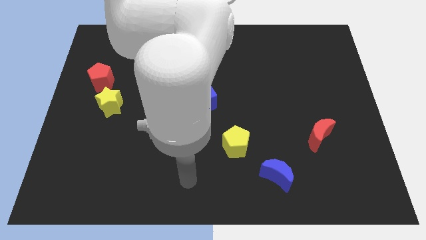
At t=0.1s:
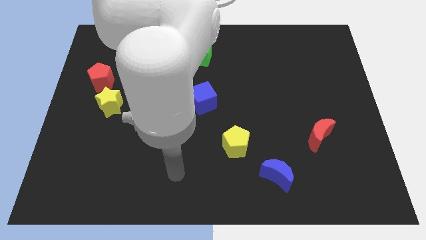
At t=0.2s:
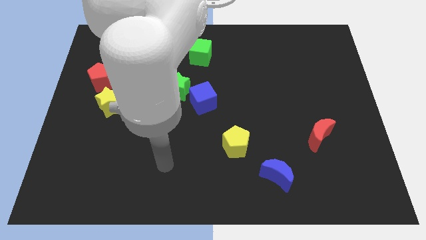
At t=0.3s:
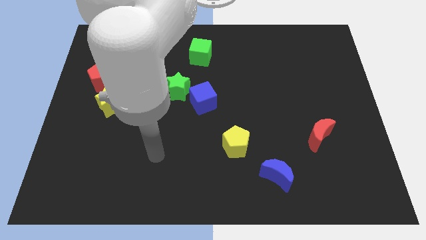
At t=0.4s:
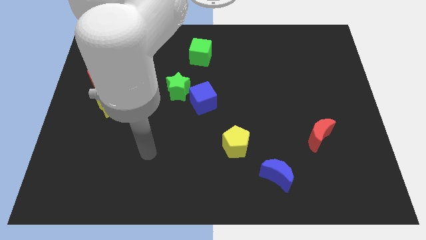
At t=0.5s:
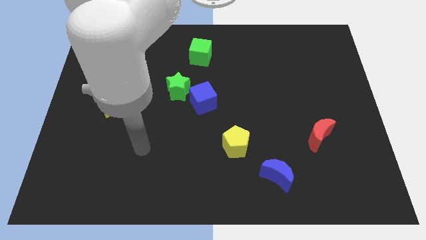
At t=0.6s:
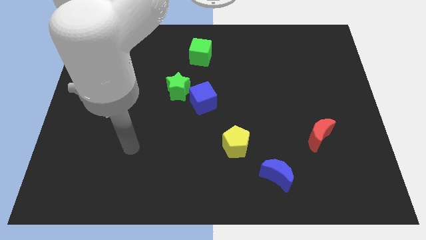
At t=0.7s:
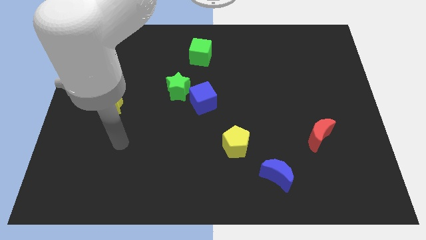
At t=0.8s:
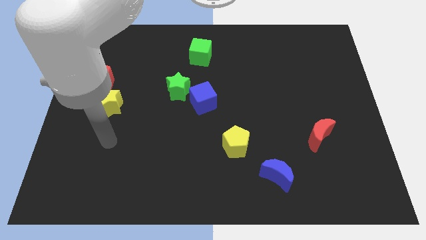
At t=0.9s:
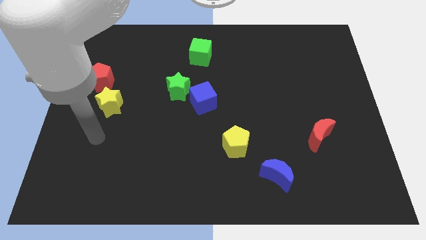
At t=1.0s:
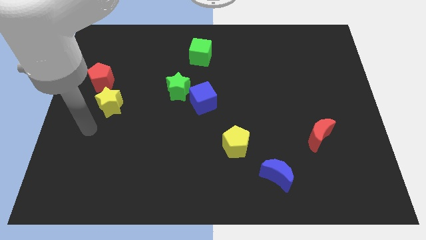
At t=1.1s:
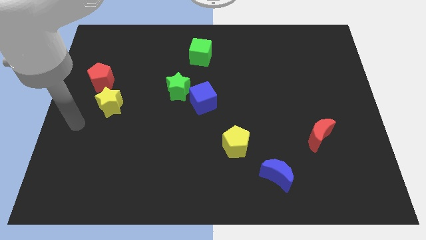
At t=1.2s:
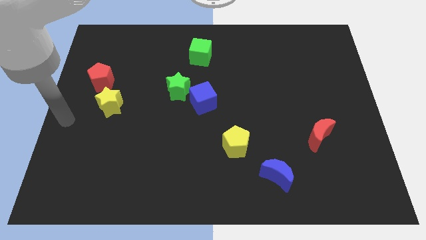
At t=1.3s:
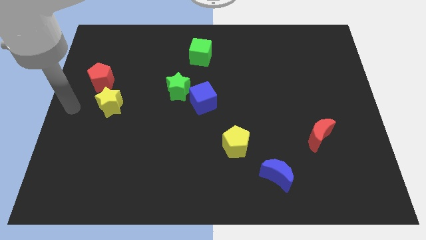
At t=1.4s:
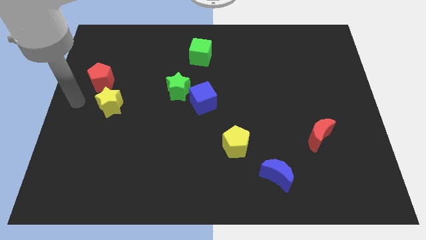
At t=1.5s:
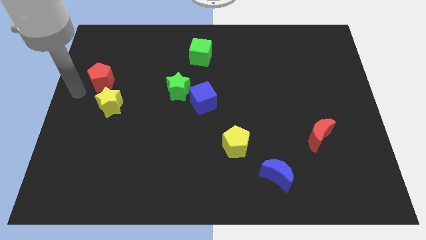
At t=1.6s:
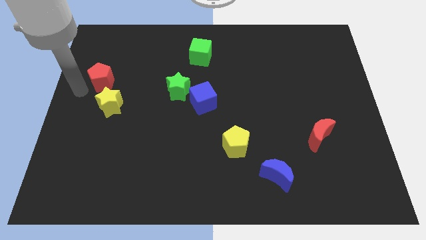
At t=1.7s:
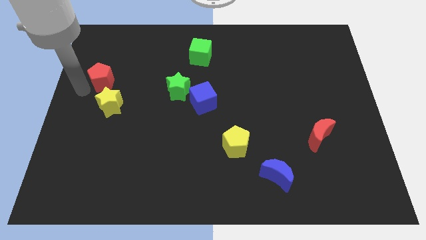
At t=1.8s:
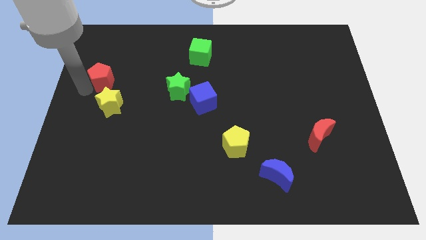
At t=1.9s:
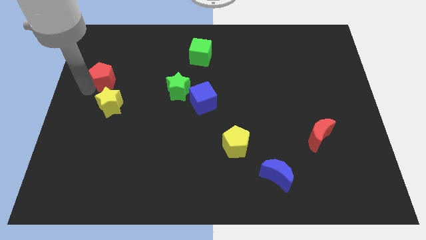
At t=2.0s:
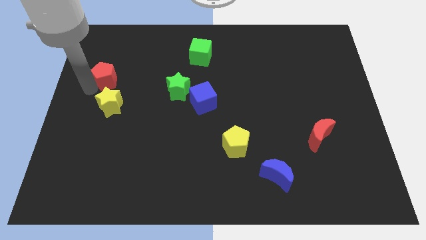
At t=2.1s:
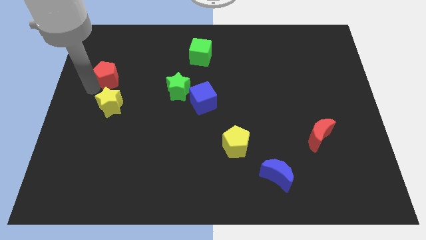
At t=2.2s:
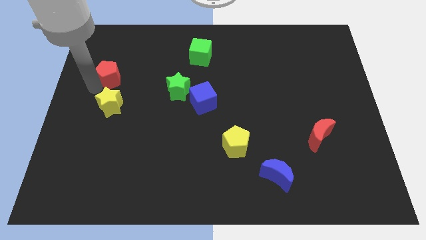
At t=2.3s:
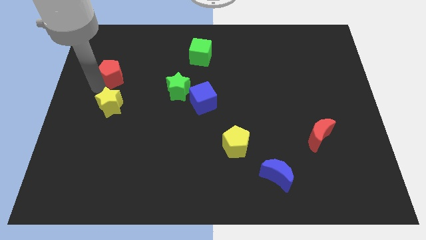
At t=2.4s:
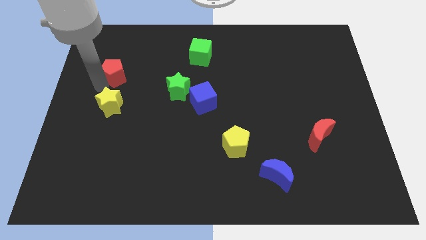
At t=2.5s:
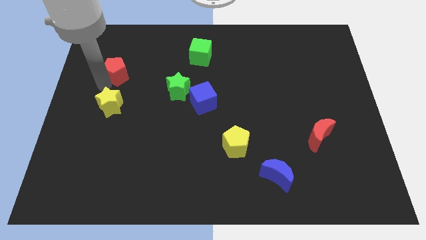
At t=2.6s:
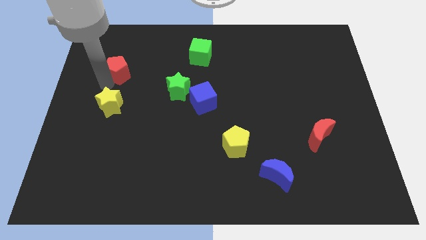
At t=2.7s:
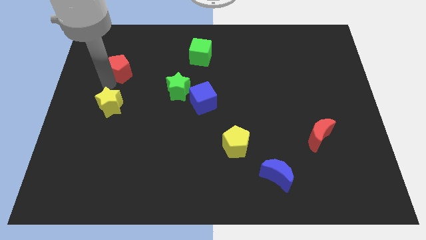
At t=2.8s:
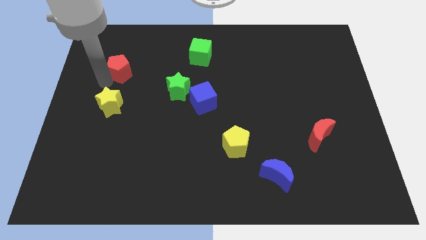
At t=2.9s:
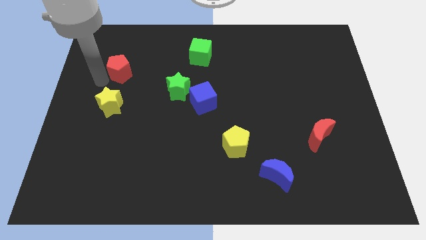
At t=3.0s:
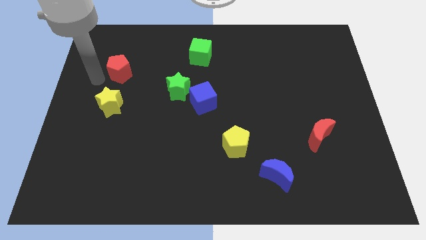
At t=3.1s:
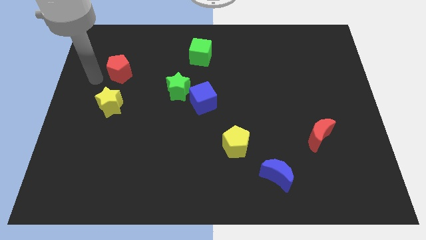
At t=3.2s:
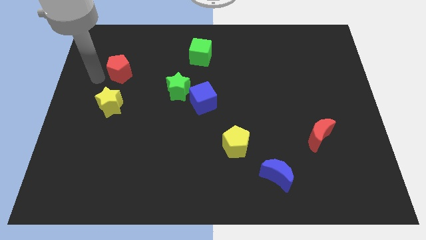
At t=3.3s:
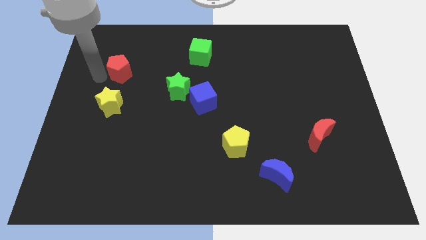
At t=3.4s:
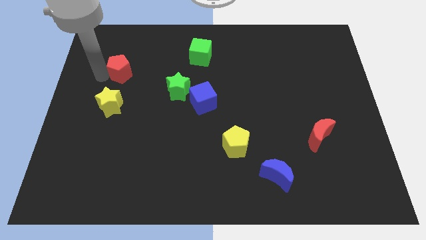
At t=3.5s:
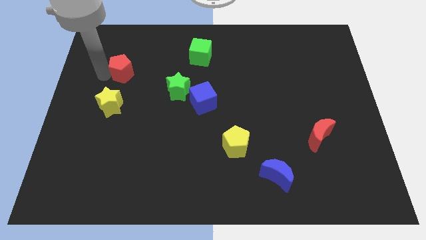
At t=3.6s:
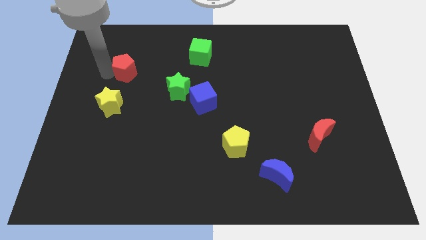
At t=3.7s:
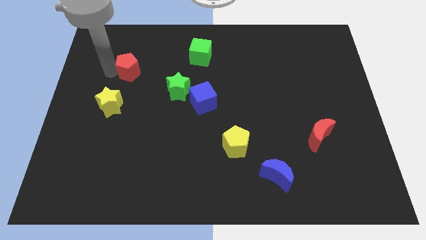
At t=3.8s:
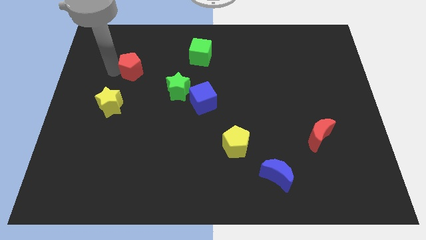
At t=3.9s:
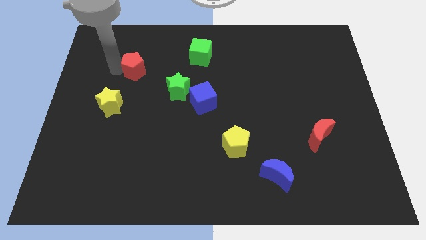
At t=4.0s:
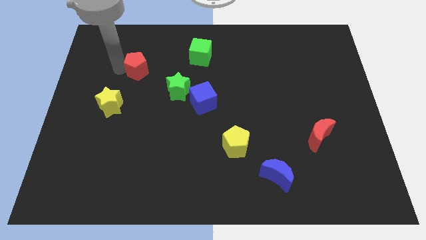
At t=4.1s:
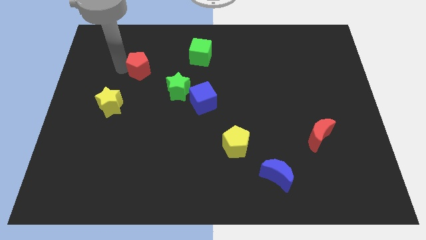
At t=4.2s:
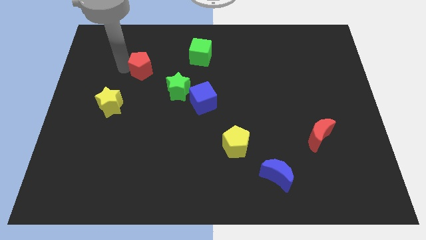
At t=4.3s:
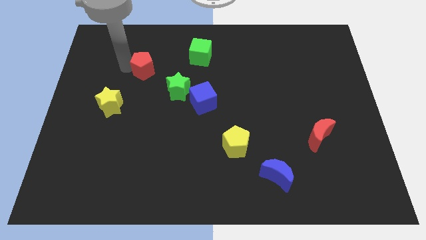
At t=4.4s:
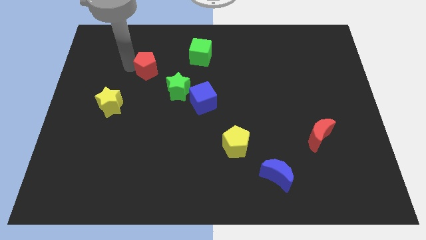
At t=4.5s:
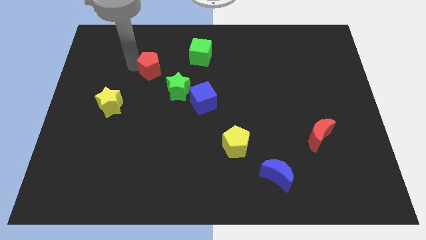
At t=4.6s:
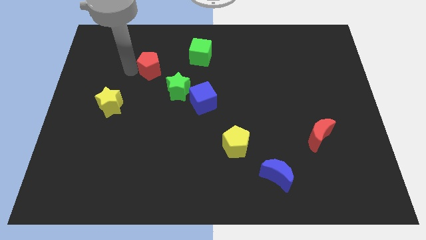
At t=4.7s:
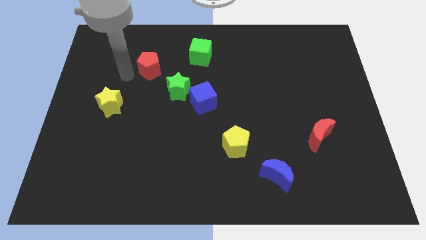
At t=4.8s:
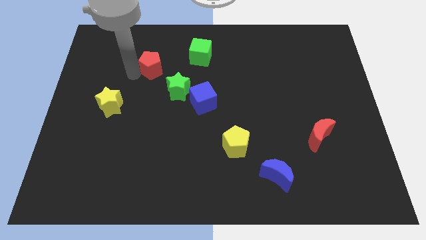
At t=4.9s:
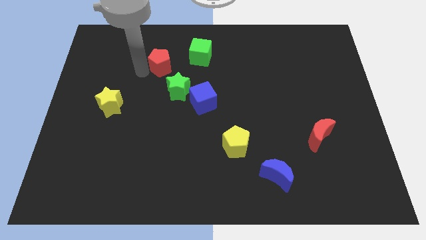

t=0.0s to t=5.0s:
slide the red pentagon above the green star

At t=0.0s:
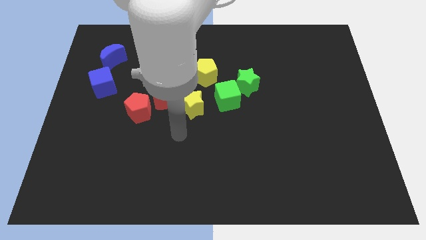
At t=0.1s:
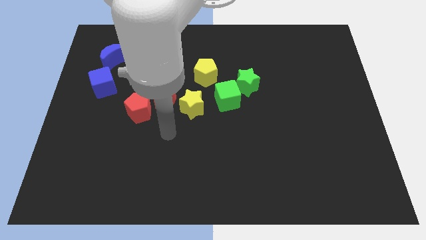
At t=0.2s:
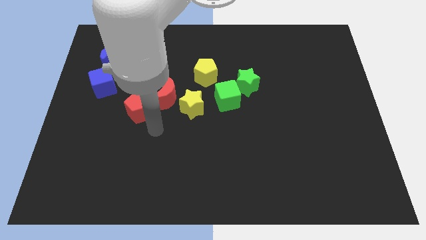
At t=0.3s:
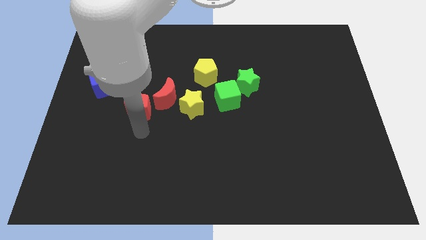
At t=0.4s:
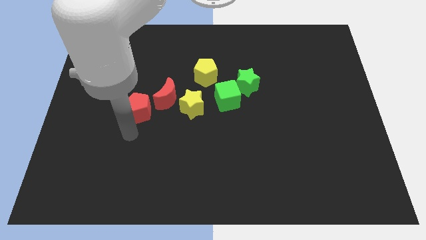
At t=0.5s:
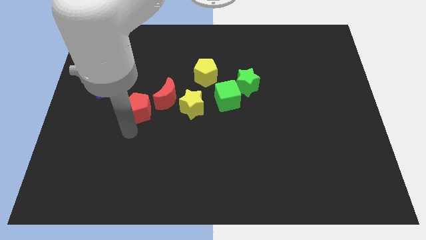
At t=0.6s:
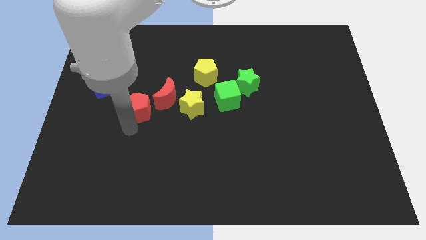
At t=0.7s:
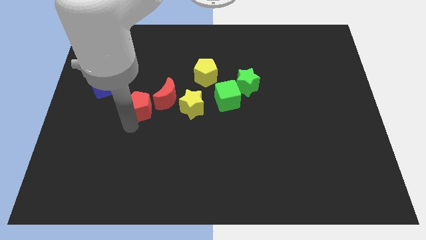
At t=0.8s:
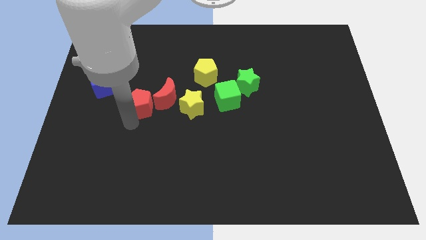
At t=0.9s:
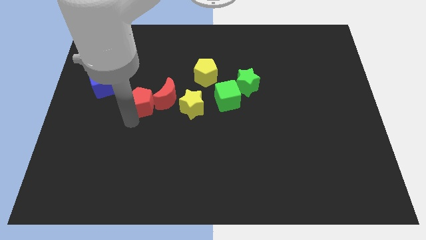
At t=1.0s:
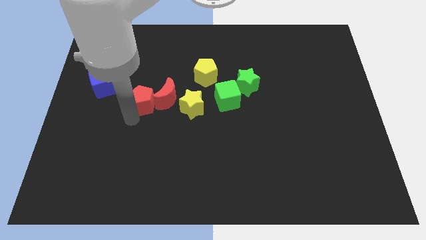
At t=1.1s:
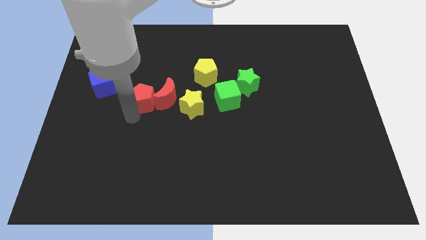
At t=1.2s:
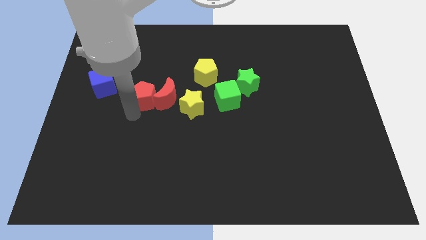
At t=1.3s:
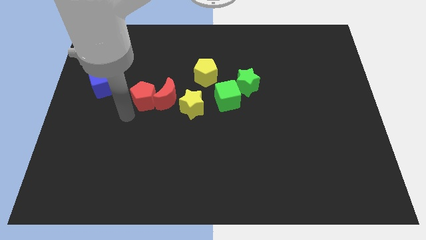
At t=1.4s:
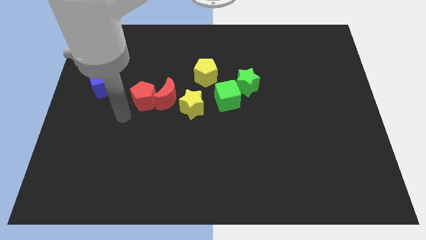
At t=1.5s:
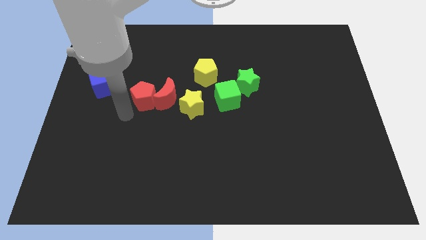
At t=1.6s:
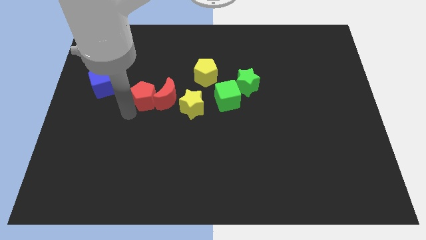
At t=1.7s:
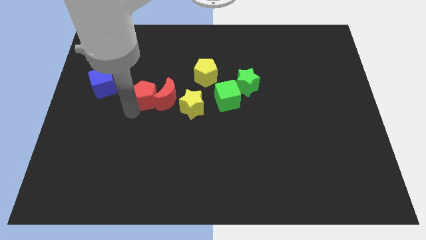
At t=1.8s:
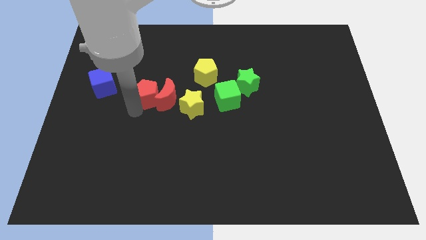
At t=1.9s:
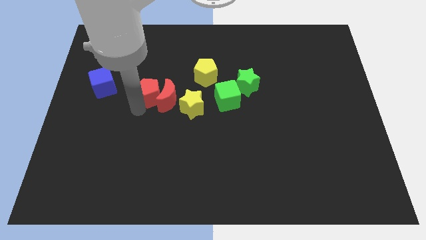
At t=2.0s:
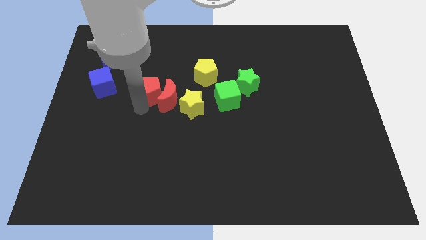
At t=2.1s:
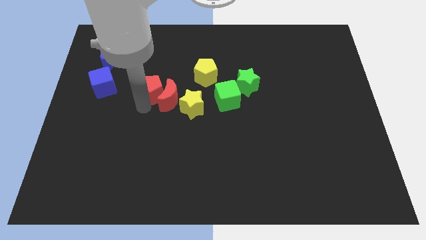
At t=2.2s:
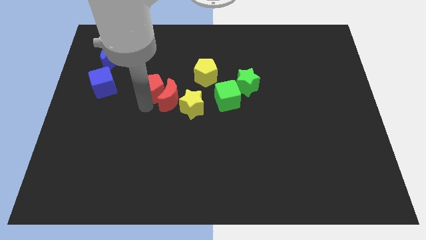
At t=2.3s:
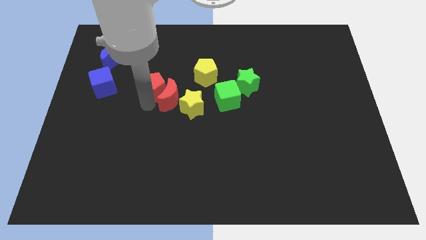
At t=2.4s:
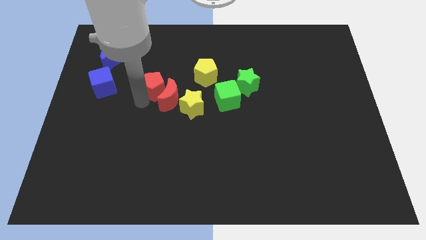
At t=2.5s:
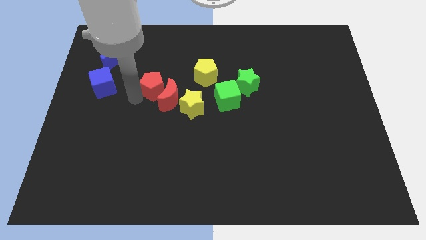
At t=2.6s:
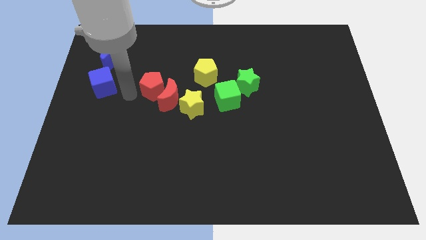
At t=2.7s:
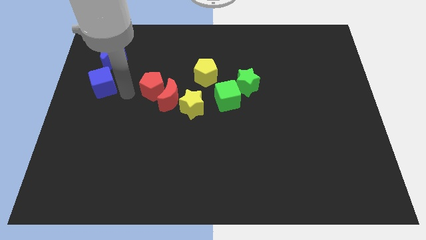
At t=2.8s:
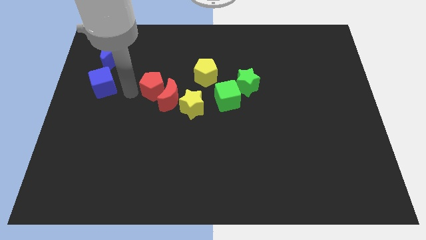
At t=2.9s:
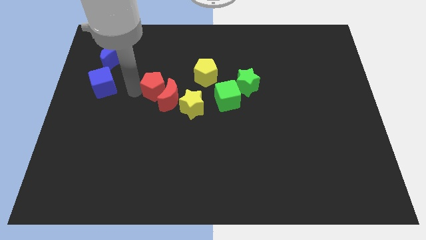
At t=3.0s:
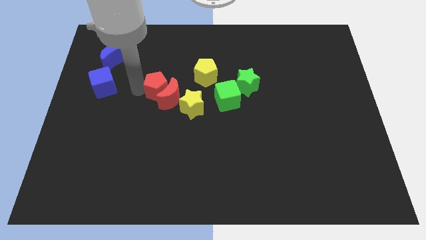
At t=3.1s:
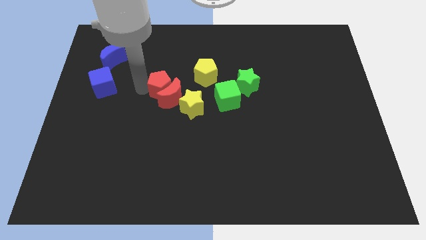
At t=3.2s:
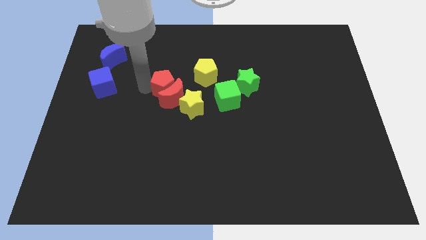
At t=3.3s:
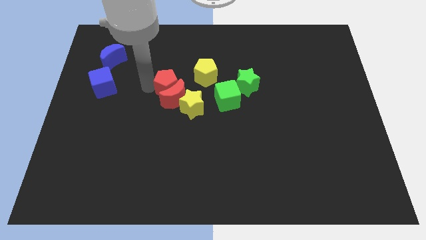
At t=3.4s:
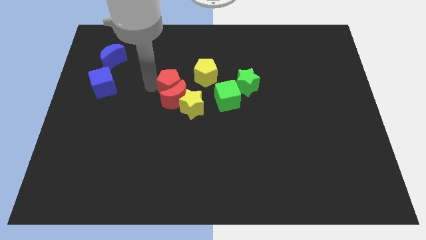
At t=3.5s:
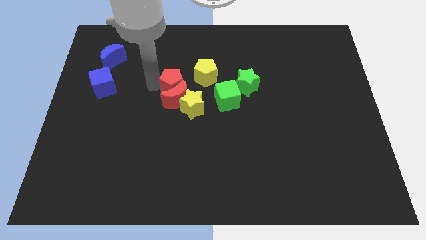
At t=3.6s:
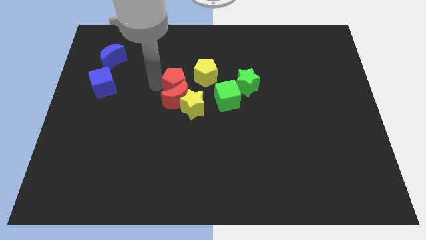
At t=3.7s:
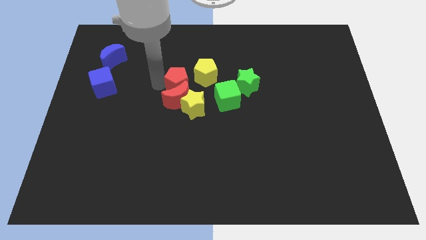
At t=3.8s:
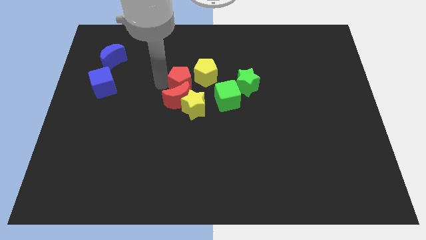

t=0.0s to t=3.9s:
slide the red pentagon to the left of the green star
